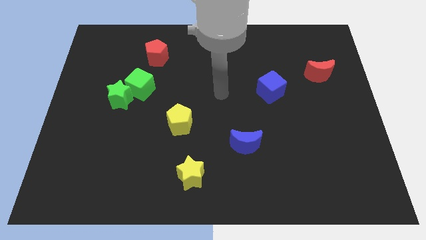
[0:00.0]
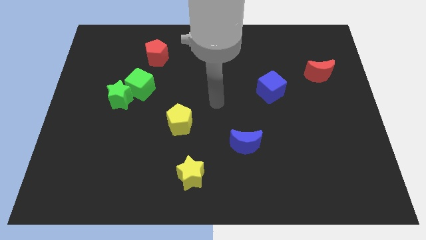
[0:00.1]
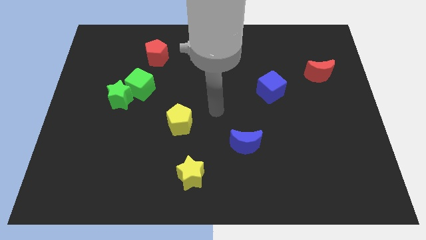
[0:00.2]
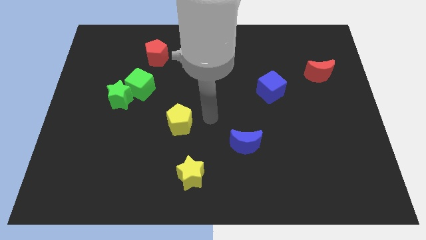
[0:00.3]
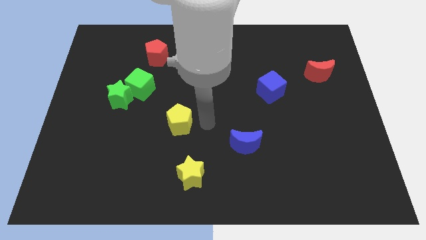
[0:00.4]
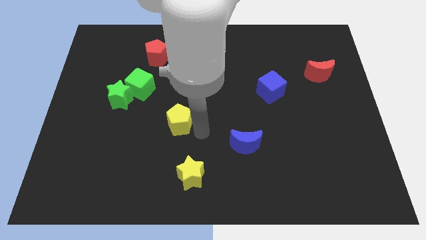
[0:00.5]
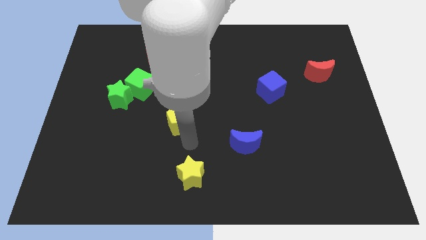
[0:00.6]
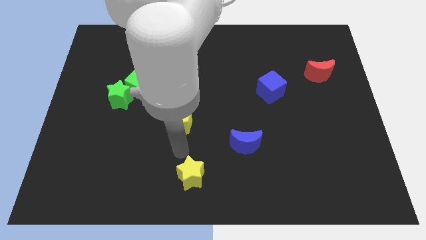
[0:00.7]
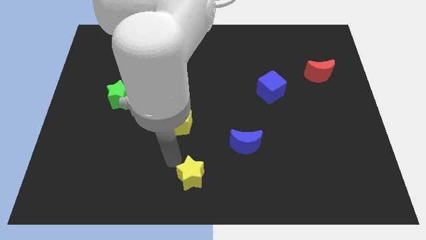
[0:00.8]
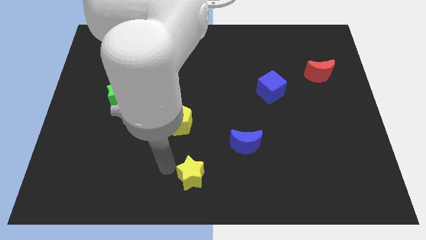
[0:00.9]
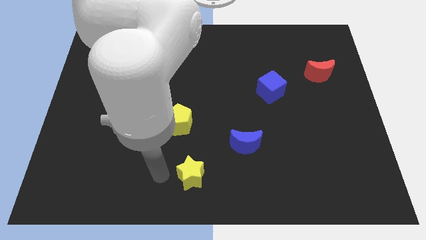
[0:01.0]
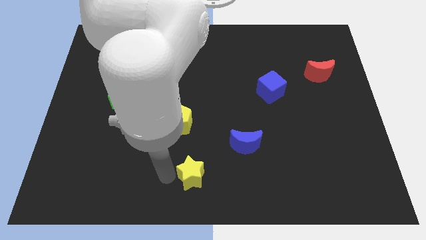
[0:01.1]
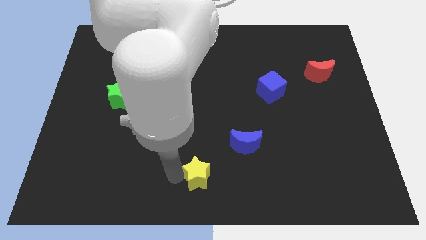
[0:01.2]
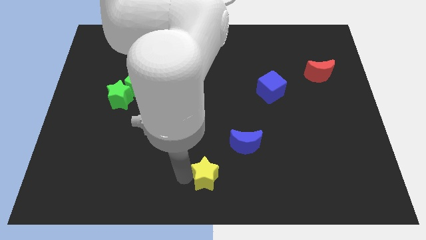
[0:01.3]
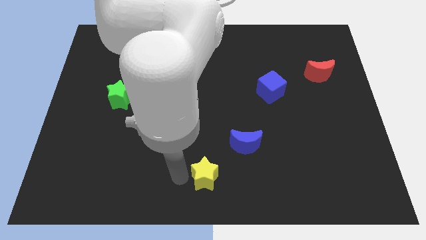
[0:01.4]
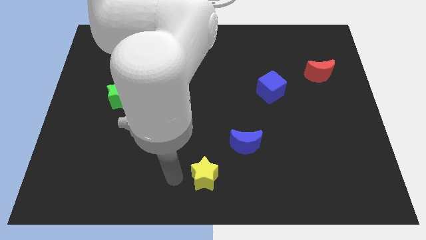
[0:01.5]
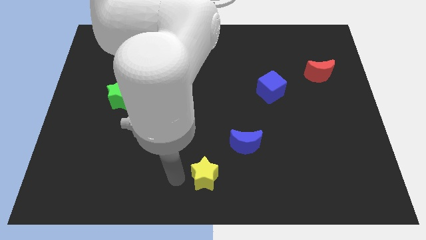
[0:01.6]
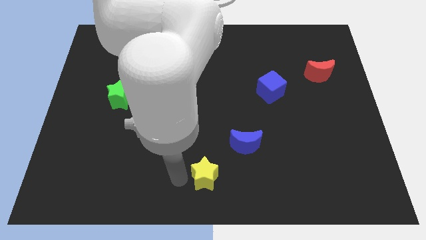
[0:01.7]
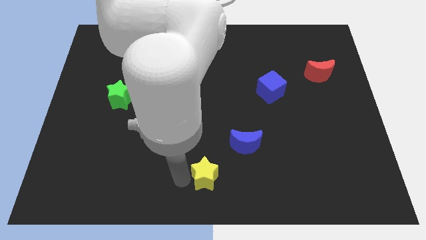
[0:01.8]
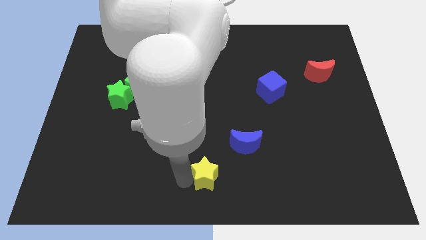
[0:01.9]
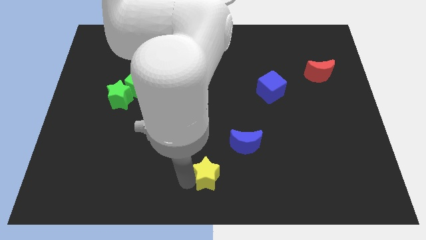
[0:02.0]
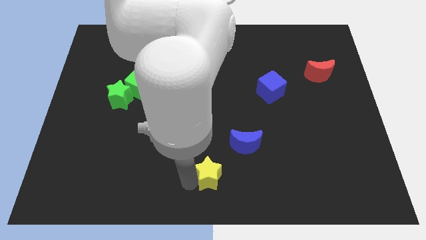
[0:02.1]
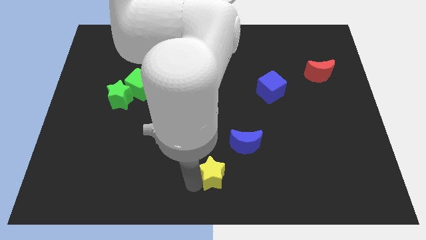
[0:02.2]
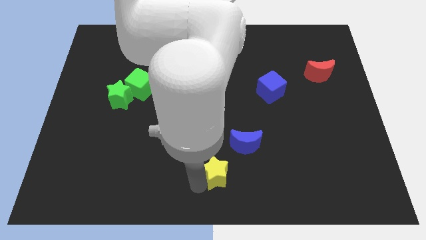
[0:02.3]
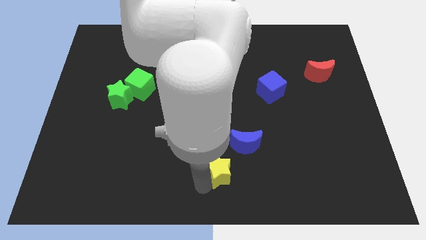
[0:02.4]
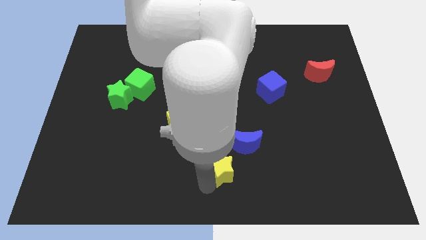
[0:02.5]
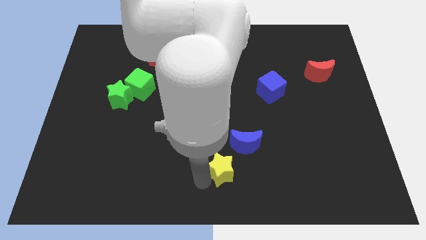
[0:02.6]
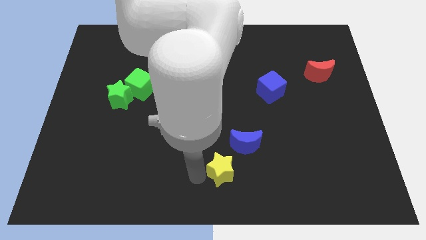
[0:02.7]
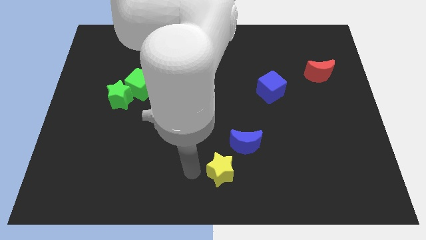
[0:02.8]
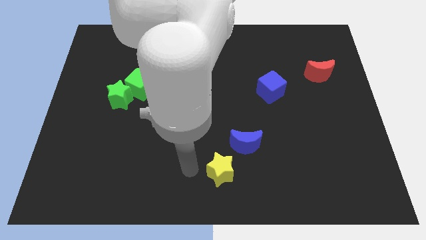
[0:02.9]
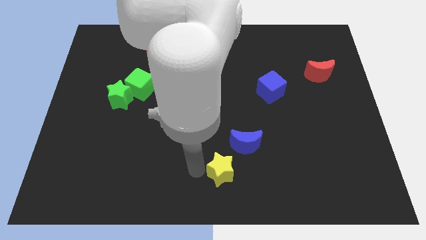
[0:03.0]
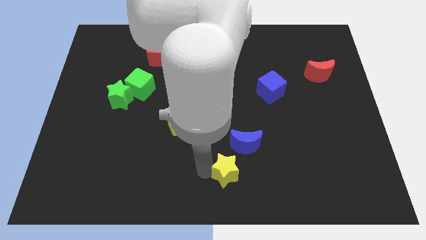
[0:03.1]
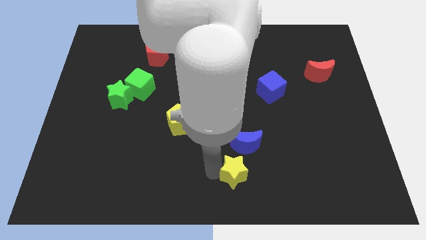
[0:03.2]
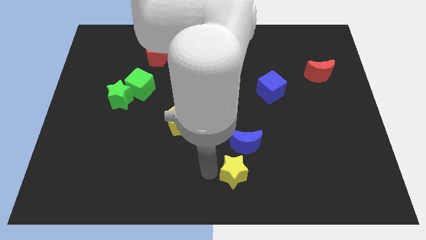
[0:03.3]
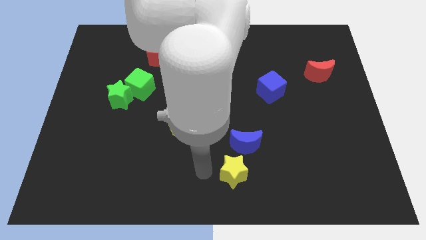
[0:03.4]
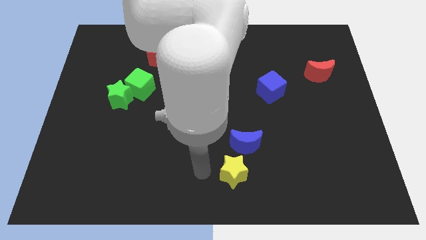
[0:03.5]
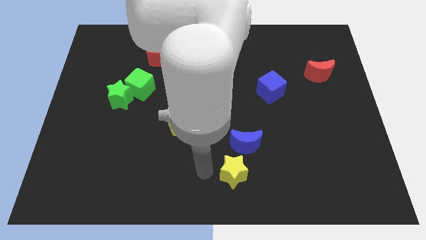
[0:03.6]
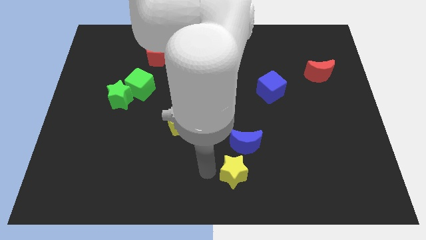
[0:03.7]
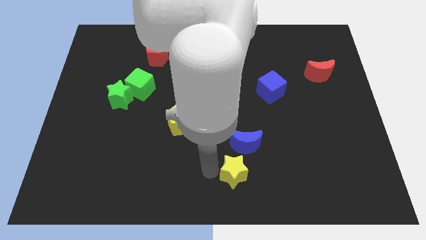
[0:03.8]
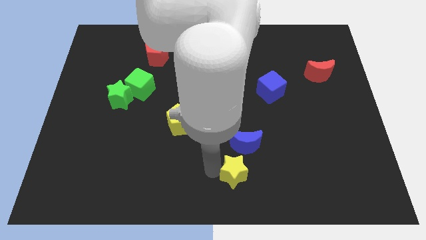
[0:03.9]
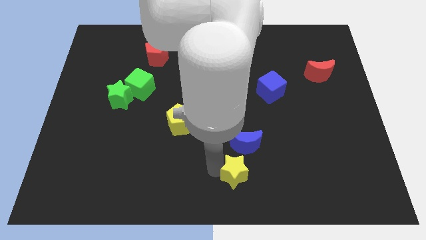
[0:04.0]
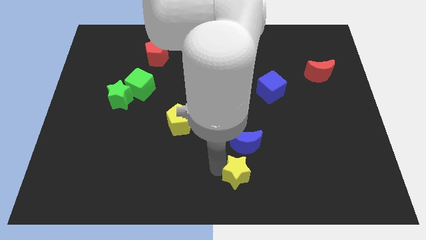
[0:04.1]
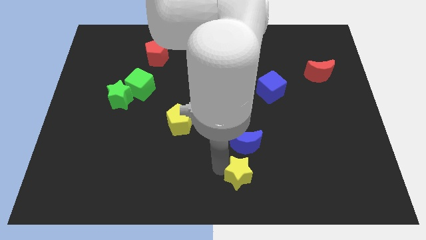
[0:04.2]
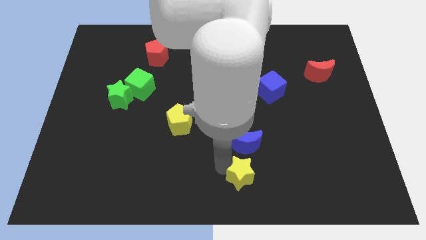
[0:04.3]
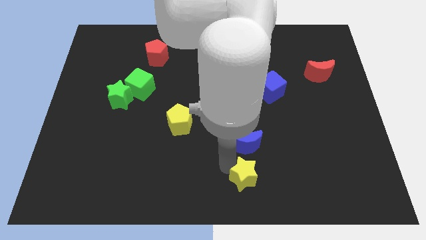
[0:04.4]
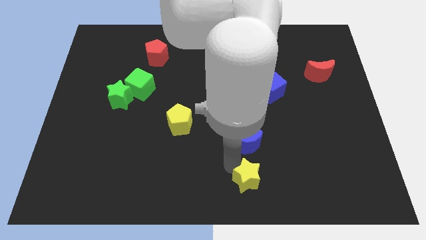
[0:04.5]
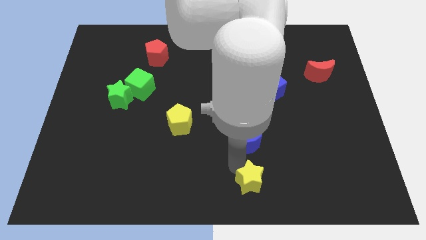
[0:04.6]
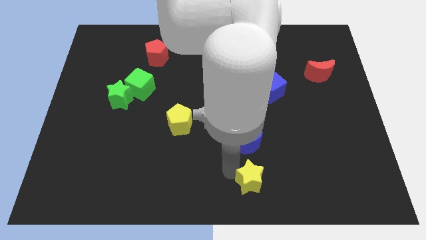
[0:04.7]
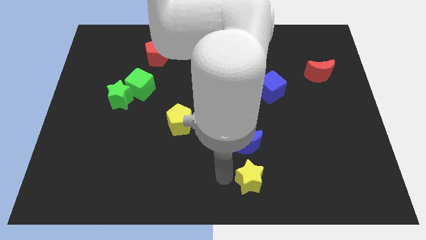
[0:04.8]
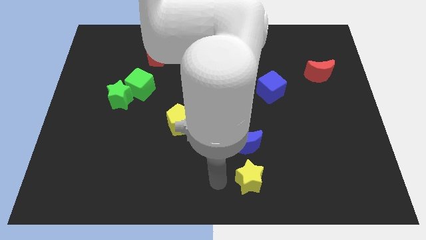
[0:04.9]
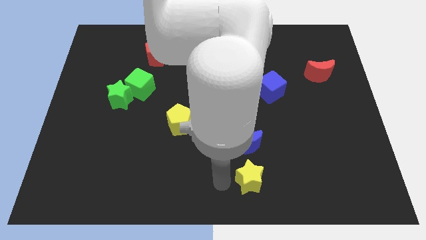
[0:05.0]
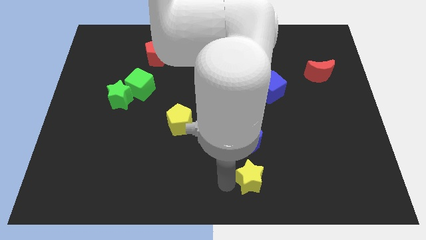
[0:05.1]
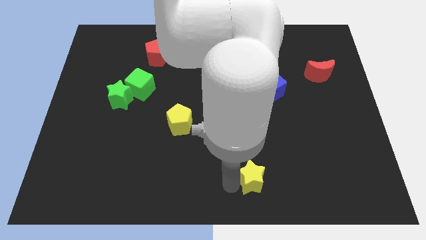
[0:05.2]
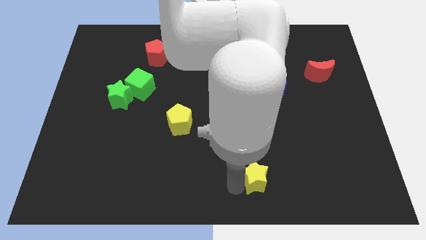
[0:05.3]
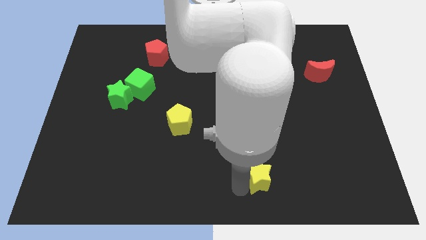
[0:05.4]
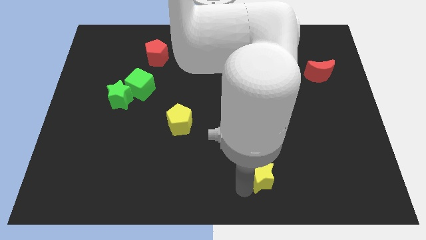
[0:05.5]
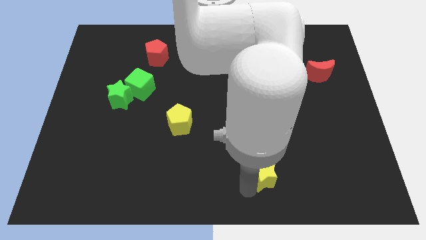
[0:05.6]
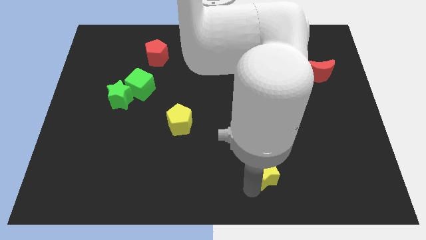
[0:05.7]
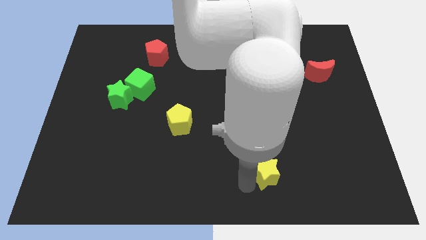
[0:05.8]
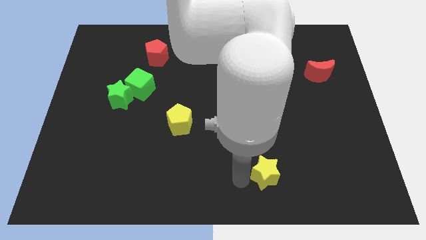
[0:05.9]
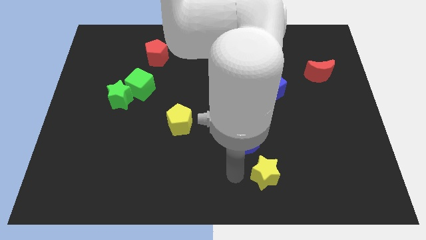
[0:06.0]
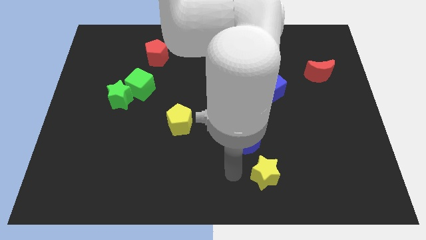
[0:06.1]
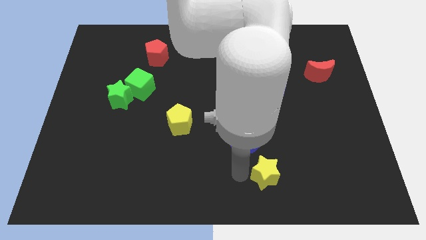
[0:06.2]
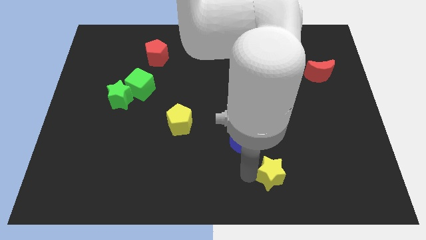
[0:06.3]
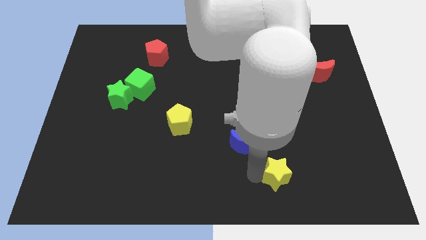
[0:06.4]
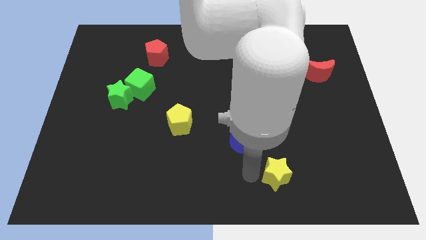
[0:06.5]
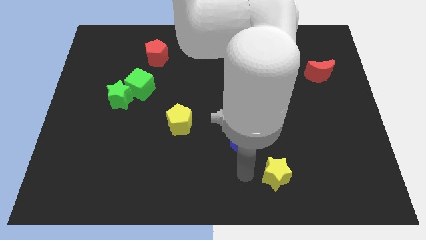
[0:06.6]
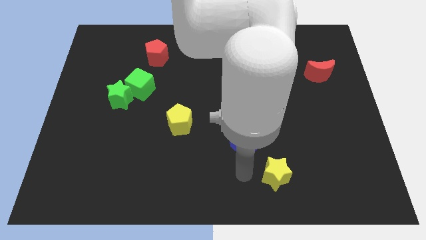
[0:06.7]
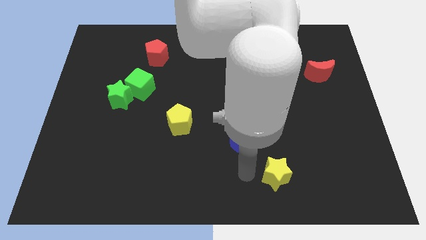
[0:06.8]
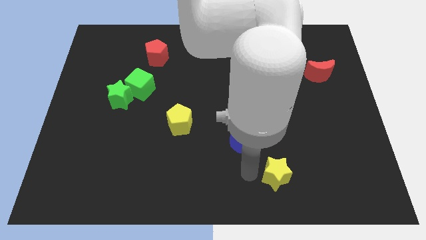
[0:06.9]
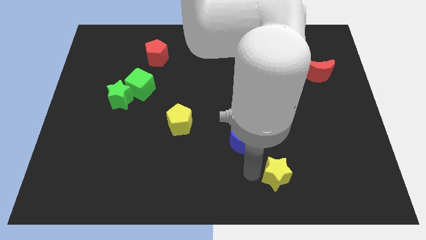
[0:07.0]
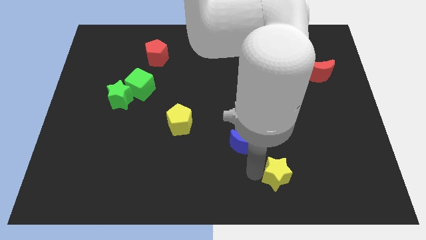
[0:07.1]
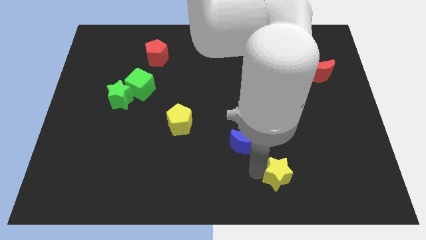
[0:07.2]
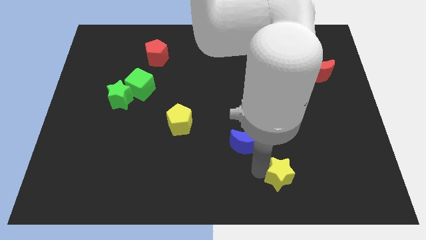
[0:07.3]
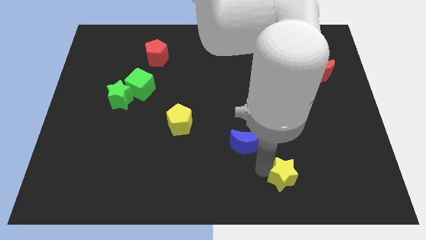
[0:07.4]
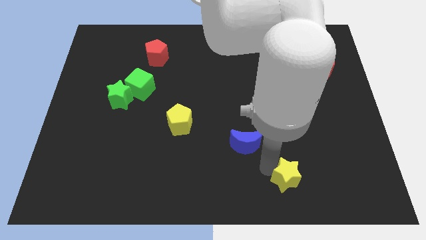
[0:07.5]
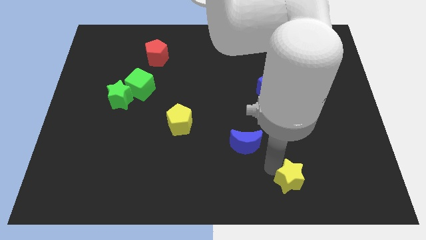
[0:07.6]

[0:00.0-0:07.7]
slide the yellow star right

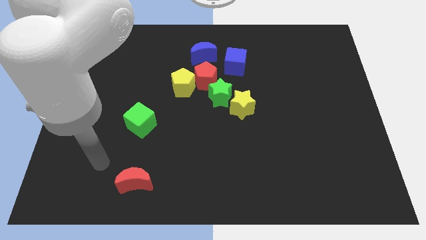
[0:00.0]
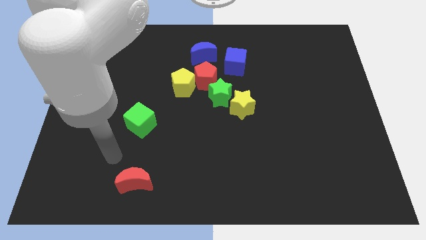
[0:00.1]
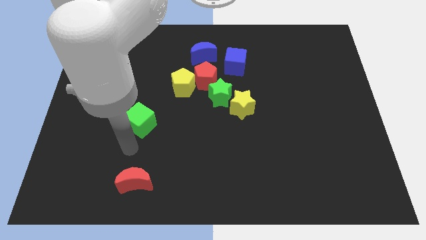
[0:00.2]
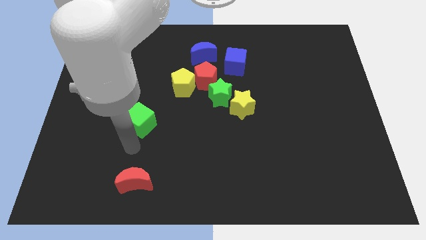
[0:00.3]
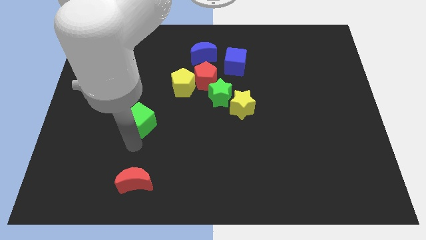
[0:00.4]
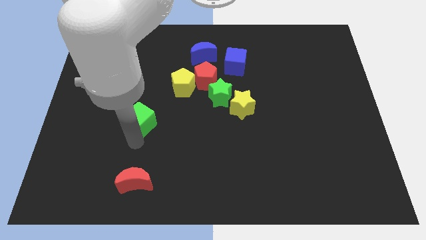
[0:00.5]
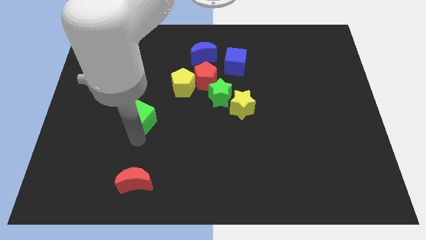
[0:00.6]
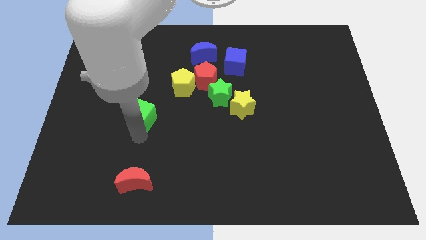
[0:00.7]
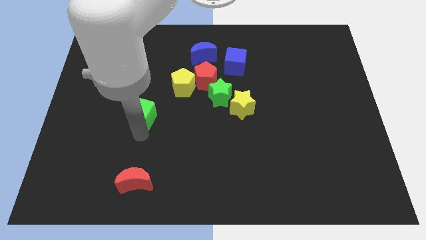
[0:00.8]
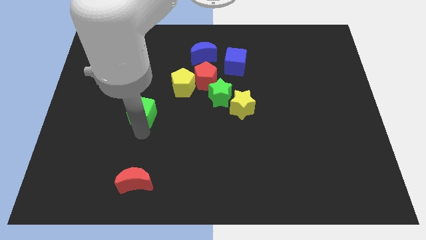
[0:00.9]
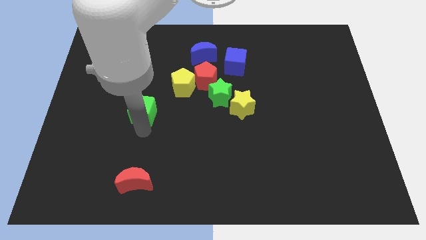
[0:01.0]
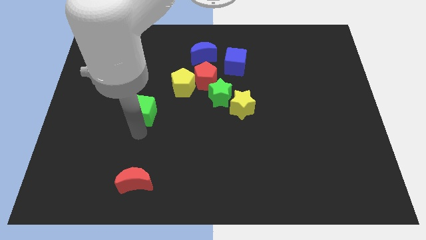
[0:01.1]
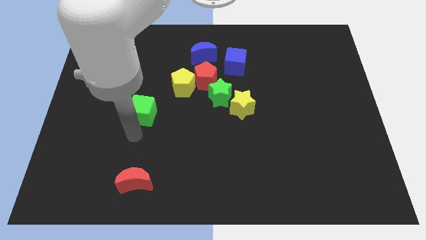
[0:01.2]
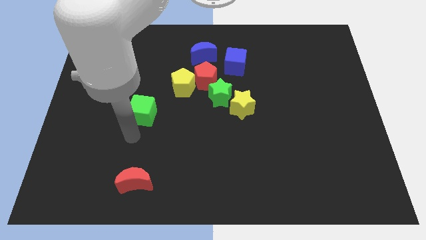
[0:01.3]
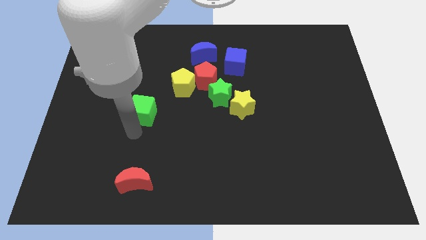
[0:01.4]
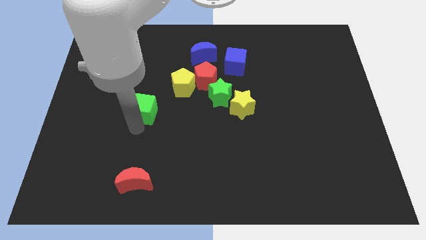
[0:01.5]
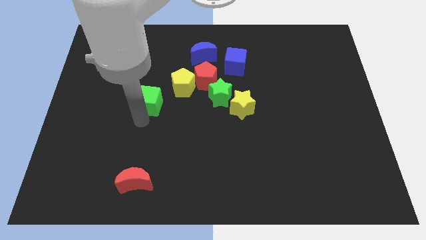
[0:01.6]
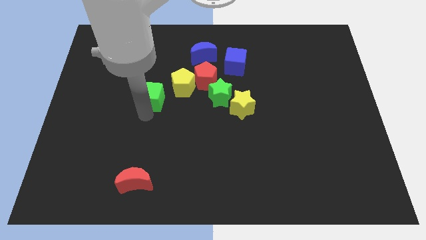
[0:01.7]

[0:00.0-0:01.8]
move the green cube upwards a bit
